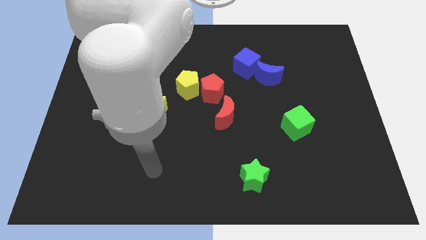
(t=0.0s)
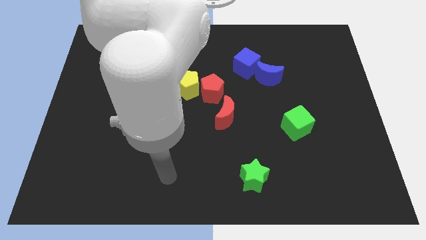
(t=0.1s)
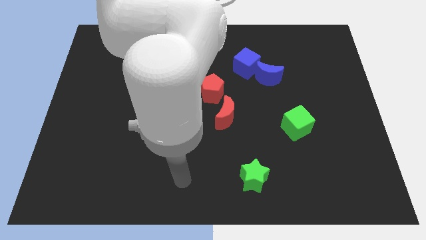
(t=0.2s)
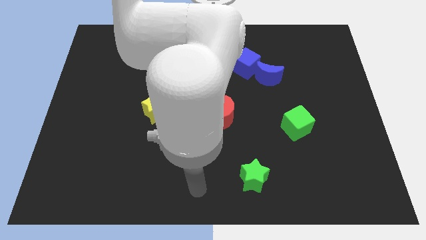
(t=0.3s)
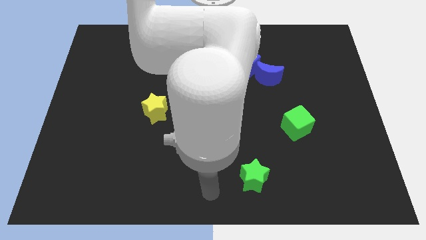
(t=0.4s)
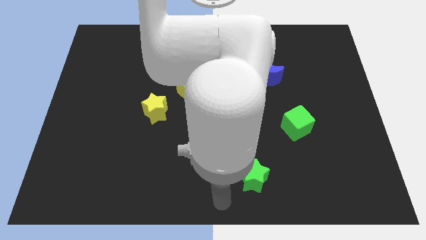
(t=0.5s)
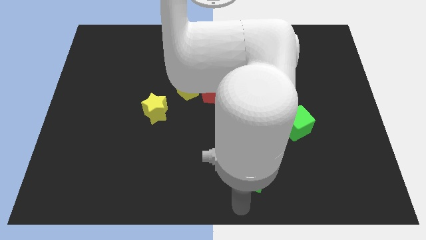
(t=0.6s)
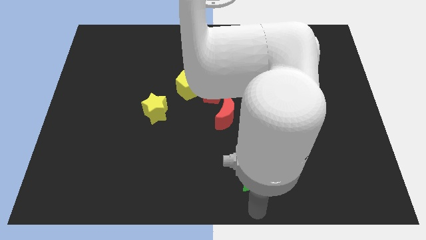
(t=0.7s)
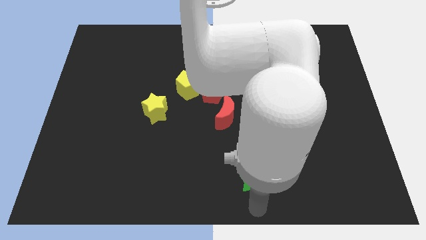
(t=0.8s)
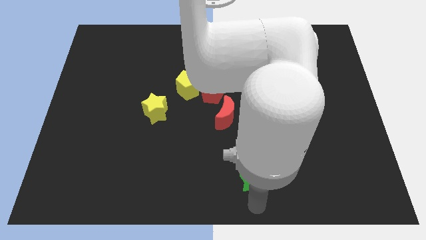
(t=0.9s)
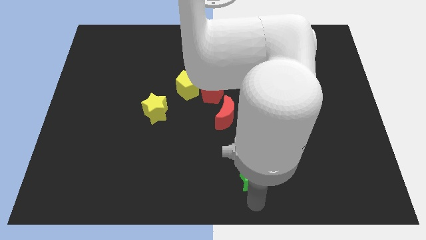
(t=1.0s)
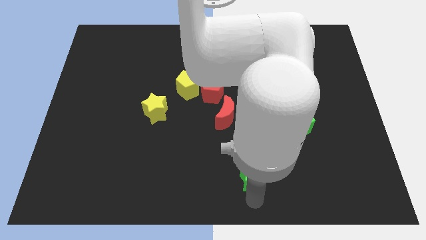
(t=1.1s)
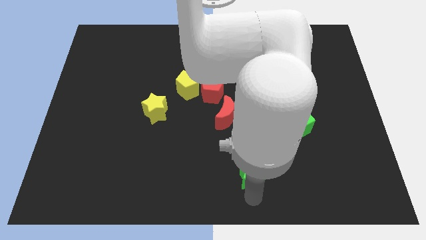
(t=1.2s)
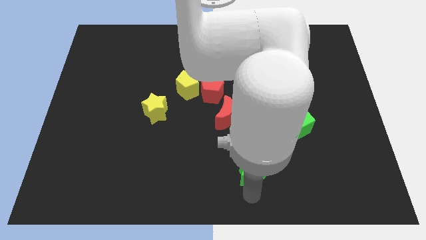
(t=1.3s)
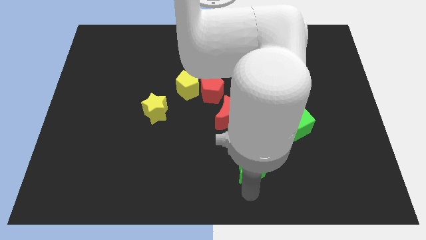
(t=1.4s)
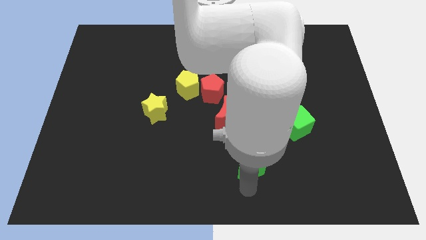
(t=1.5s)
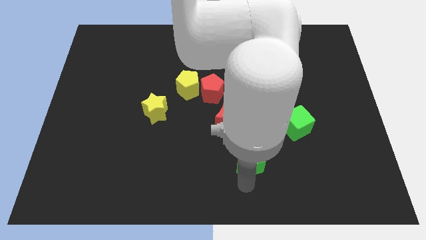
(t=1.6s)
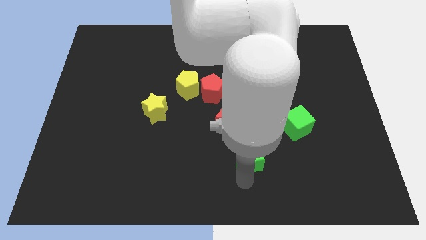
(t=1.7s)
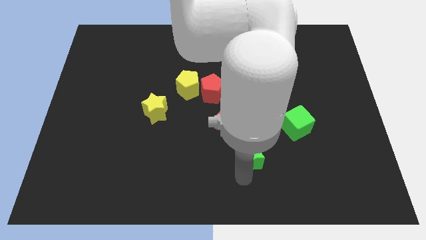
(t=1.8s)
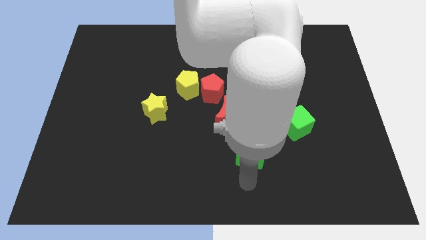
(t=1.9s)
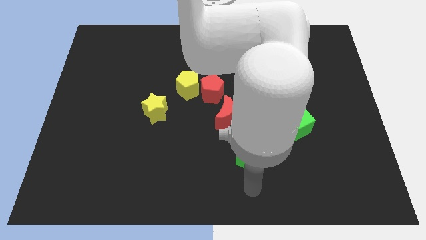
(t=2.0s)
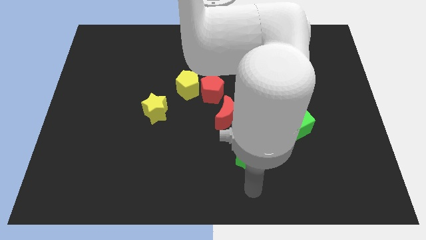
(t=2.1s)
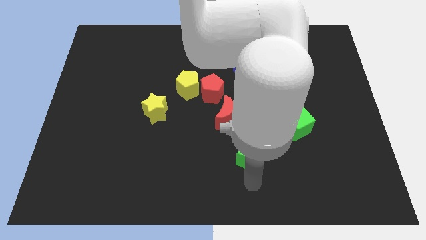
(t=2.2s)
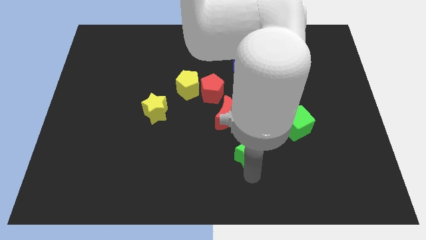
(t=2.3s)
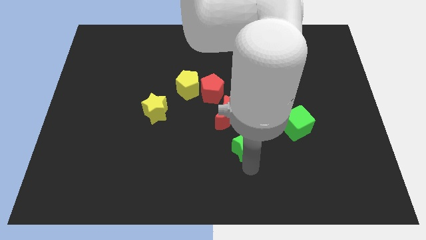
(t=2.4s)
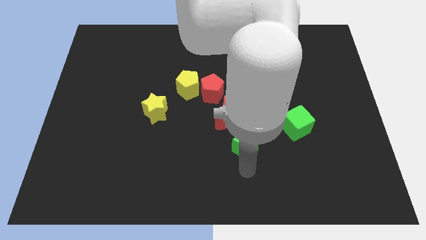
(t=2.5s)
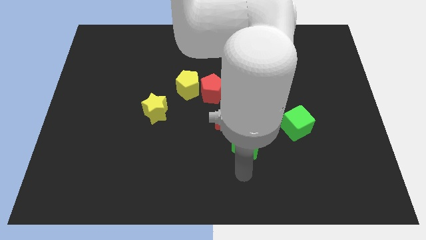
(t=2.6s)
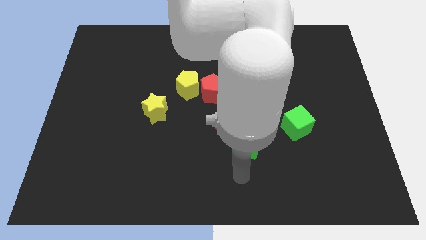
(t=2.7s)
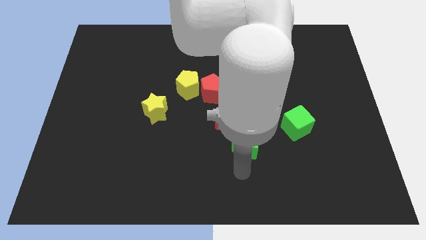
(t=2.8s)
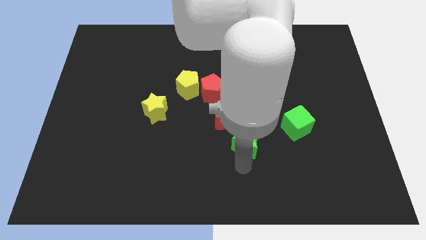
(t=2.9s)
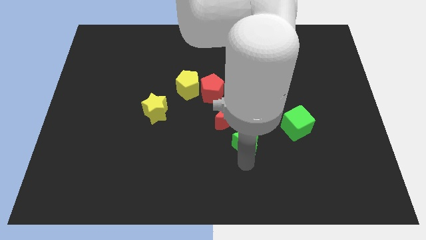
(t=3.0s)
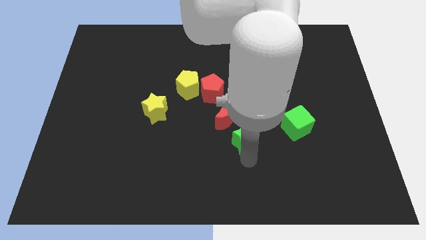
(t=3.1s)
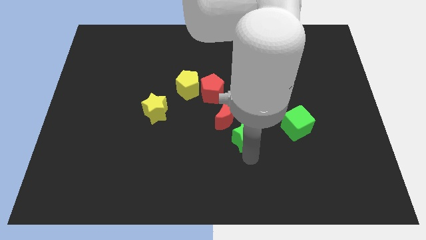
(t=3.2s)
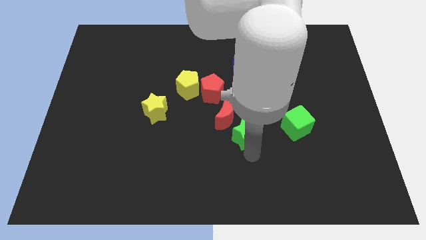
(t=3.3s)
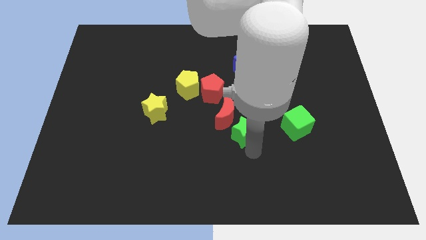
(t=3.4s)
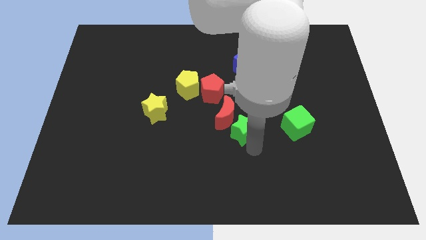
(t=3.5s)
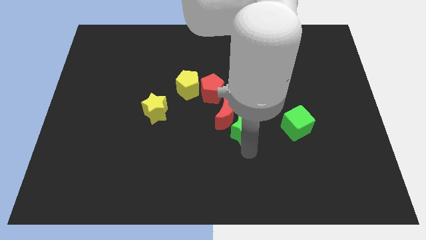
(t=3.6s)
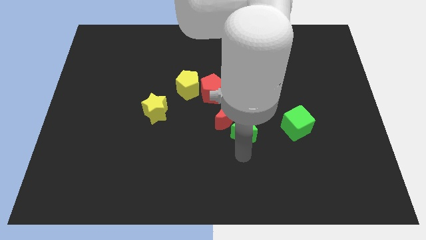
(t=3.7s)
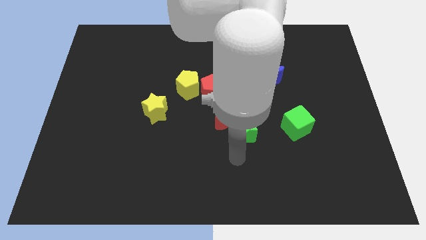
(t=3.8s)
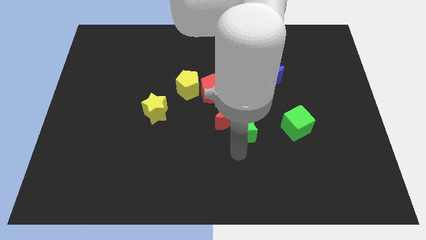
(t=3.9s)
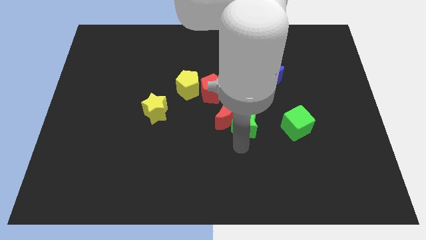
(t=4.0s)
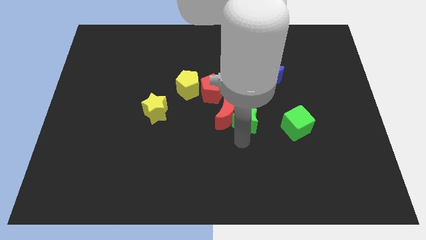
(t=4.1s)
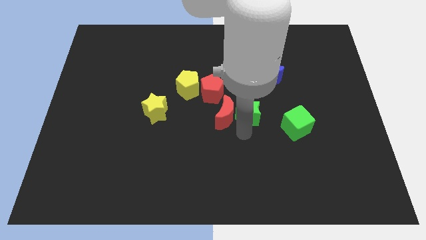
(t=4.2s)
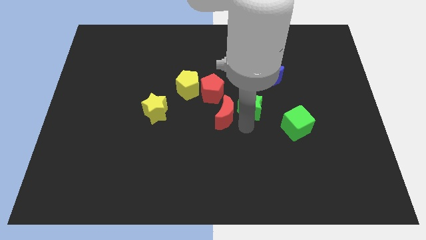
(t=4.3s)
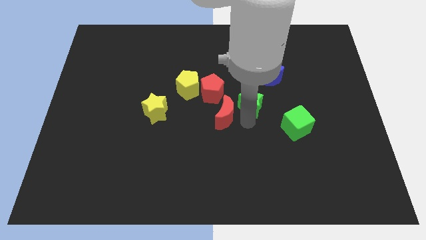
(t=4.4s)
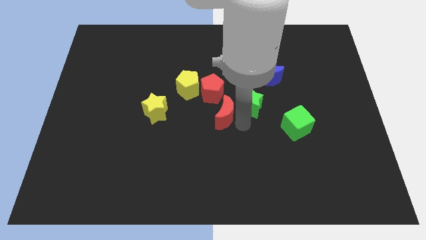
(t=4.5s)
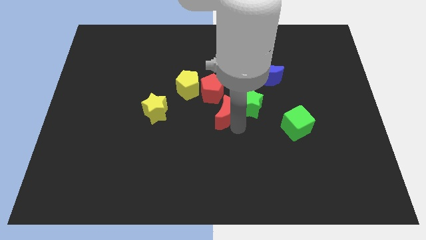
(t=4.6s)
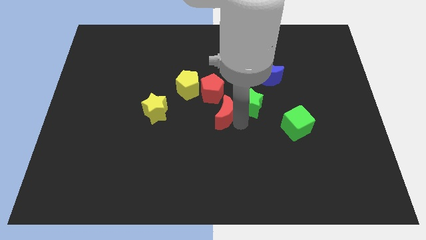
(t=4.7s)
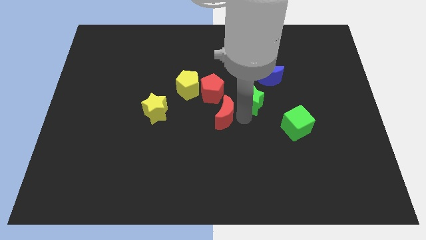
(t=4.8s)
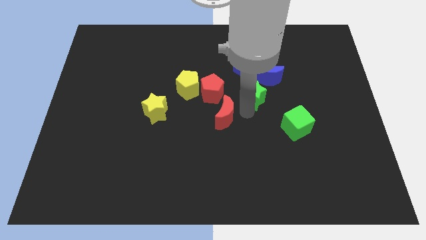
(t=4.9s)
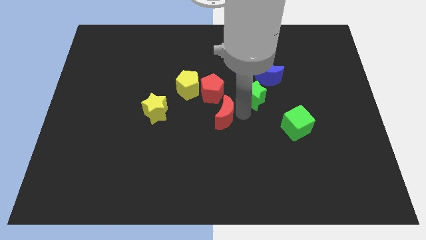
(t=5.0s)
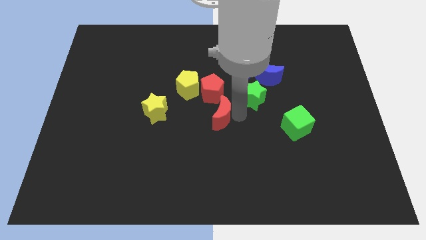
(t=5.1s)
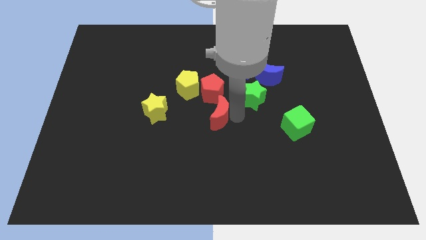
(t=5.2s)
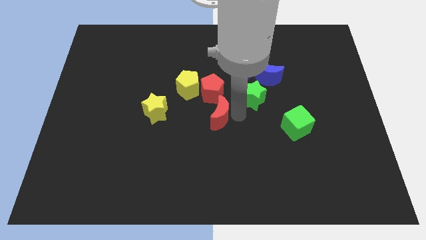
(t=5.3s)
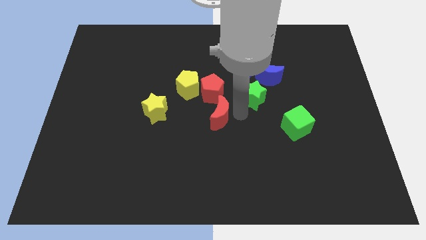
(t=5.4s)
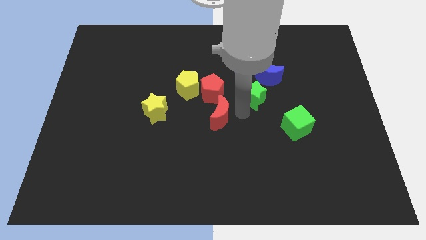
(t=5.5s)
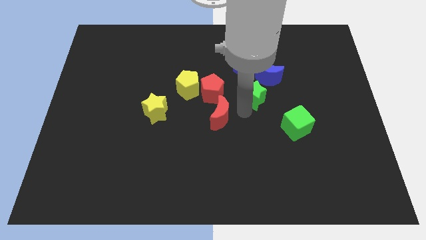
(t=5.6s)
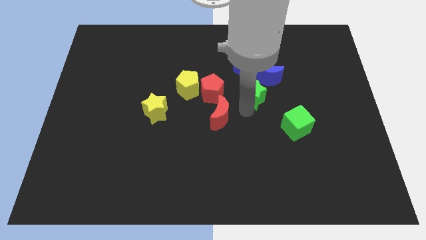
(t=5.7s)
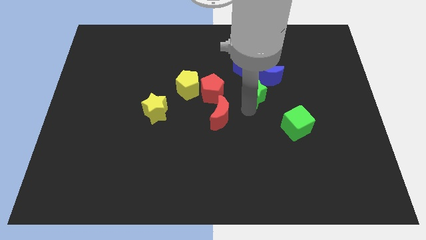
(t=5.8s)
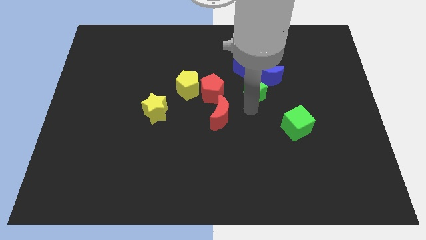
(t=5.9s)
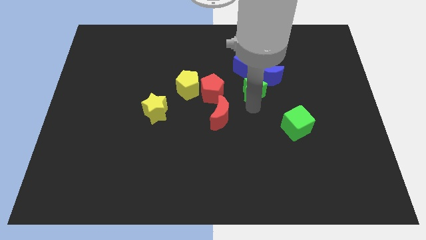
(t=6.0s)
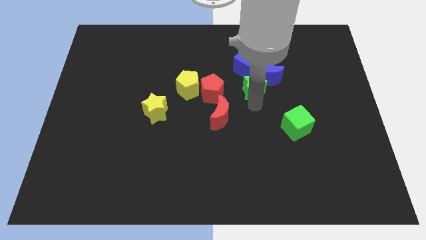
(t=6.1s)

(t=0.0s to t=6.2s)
push the green star close to the blue moon

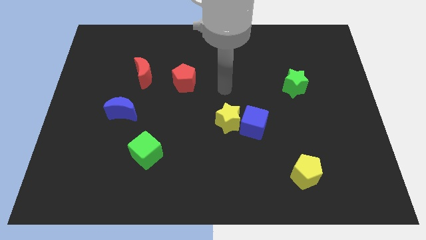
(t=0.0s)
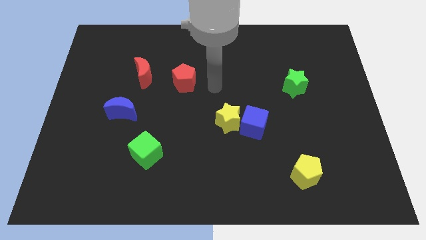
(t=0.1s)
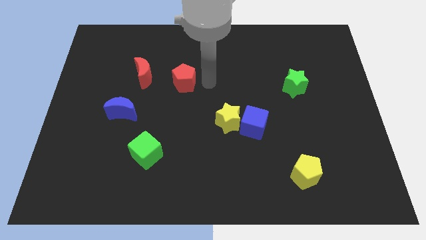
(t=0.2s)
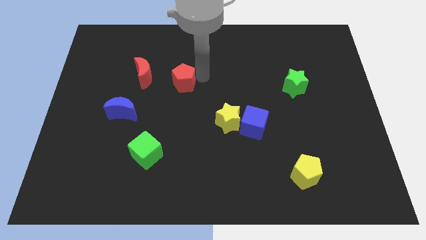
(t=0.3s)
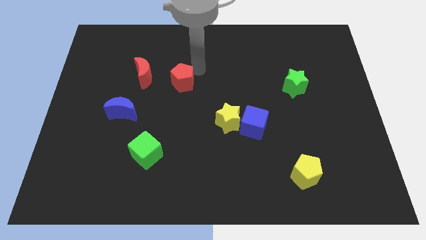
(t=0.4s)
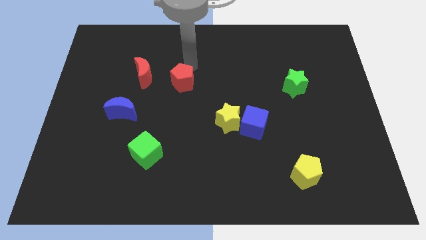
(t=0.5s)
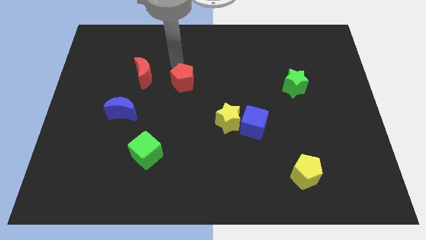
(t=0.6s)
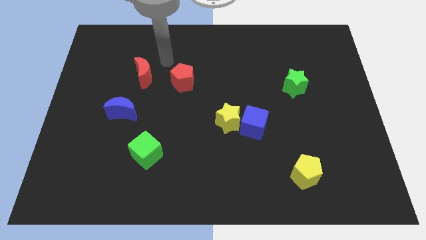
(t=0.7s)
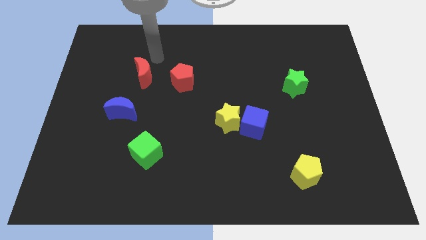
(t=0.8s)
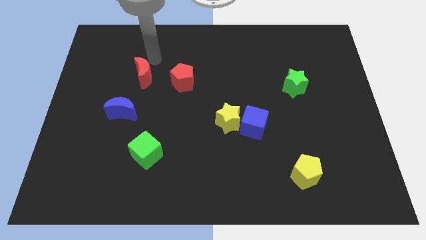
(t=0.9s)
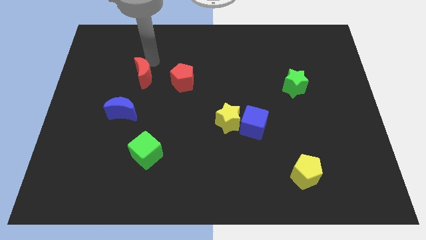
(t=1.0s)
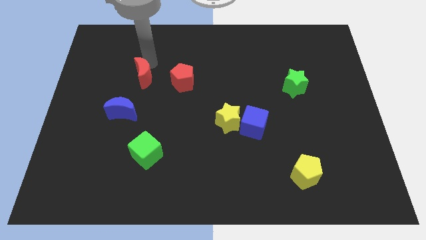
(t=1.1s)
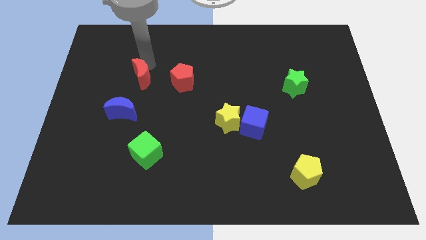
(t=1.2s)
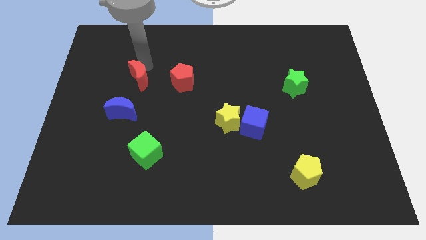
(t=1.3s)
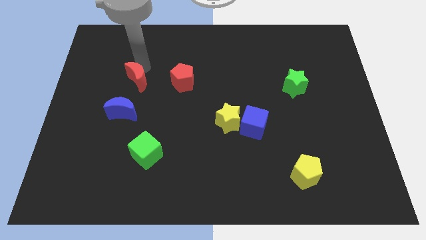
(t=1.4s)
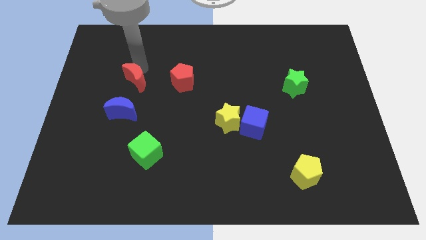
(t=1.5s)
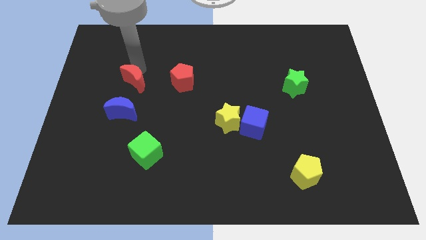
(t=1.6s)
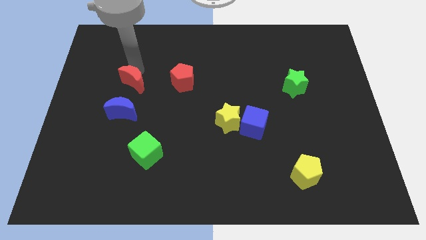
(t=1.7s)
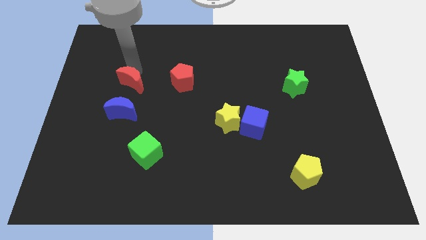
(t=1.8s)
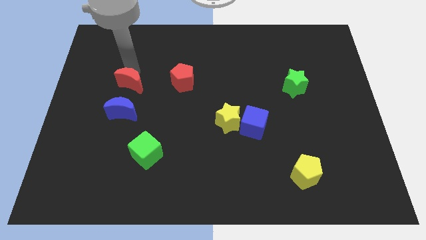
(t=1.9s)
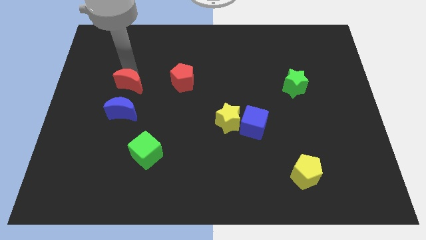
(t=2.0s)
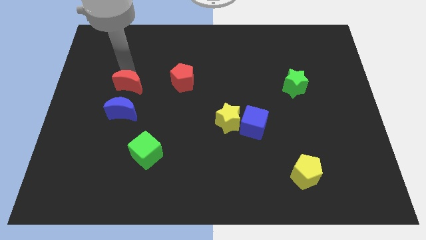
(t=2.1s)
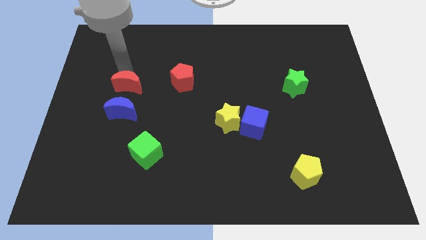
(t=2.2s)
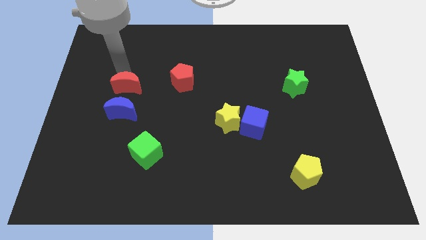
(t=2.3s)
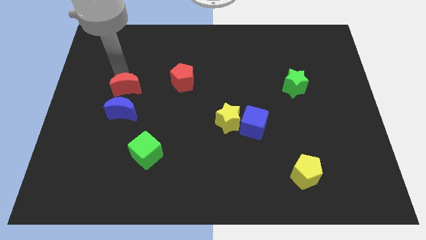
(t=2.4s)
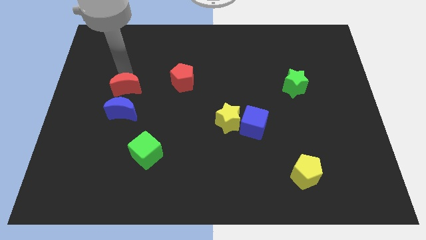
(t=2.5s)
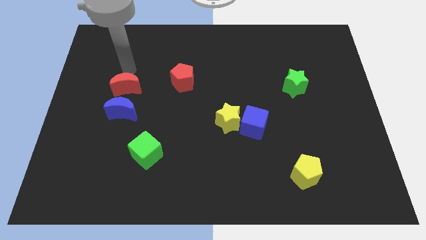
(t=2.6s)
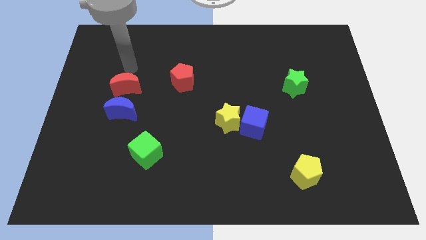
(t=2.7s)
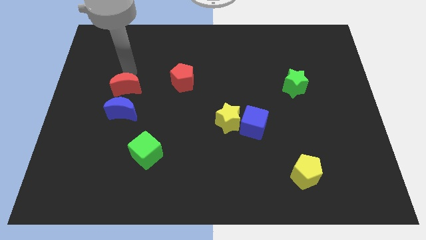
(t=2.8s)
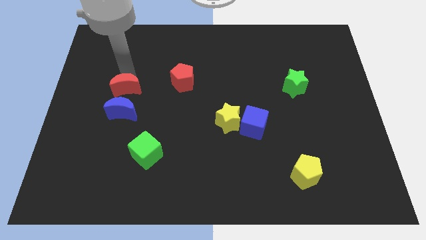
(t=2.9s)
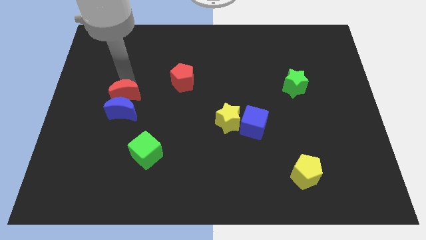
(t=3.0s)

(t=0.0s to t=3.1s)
slide the red moon next to the blue moon
